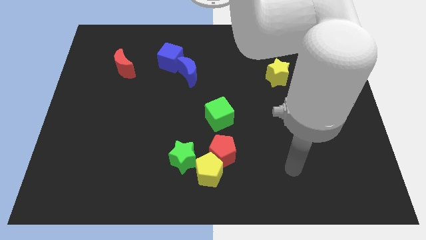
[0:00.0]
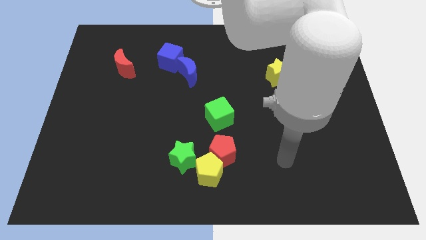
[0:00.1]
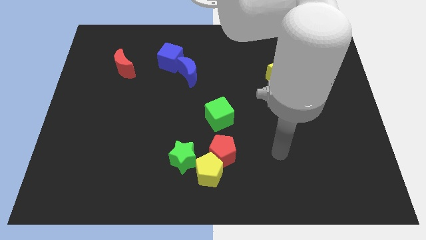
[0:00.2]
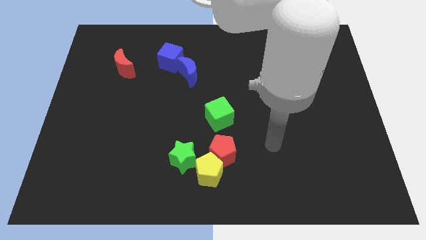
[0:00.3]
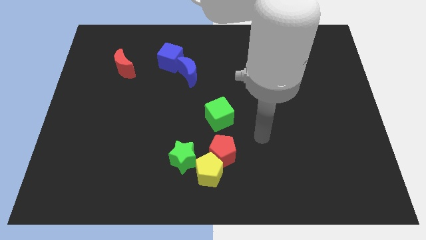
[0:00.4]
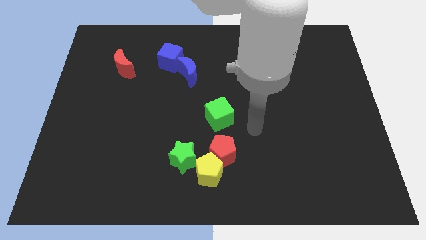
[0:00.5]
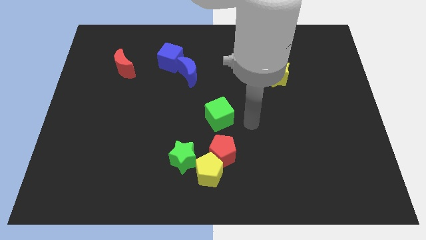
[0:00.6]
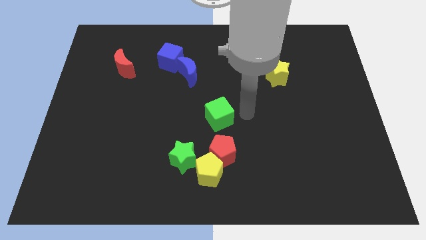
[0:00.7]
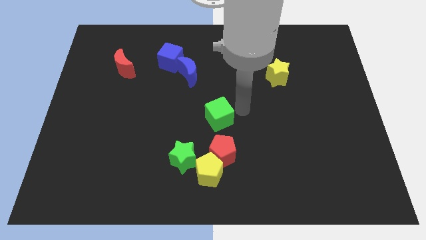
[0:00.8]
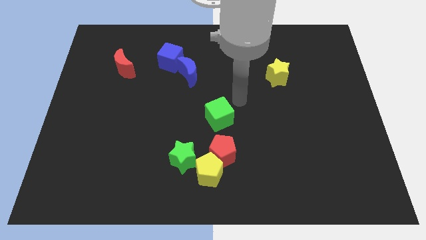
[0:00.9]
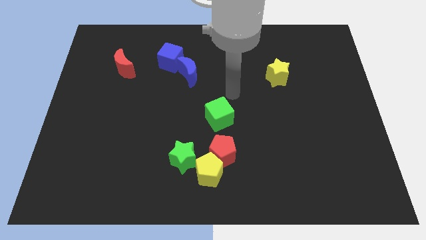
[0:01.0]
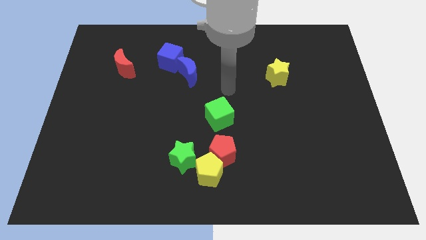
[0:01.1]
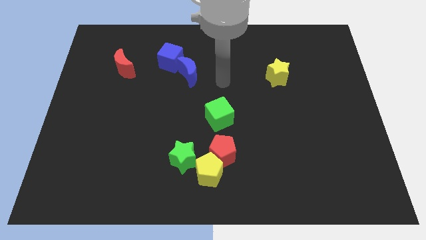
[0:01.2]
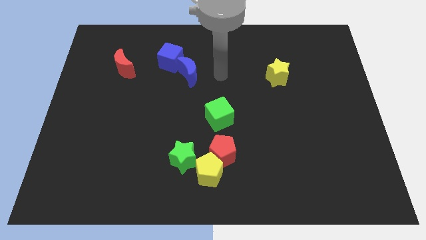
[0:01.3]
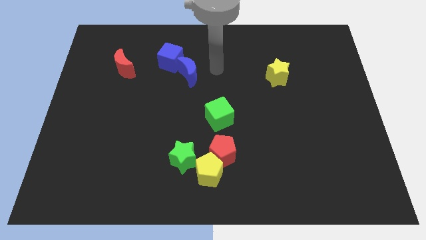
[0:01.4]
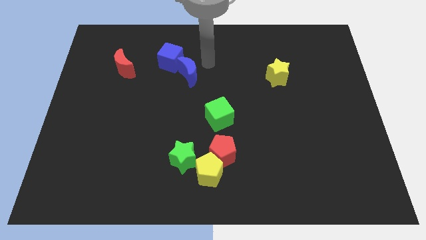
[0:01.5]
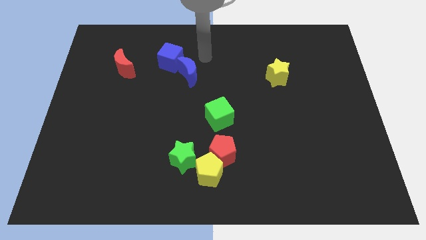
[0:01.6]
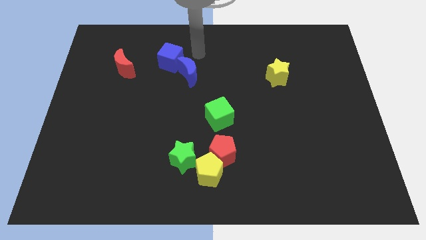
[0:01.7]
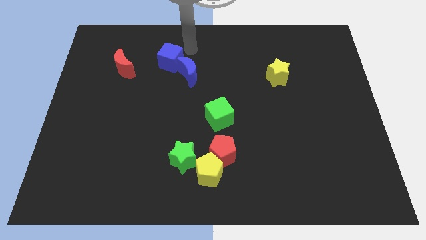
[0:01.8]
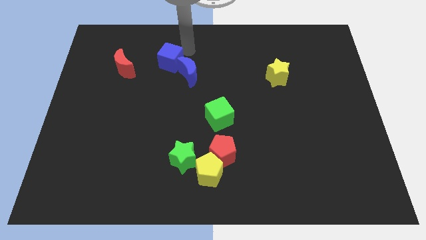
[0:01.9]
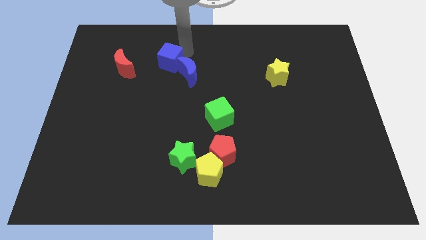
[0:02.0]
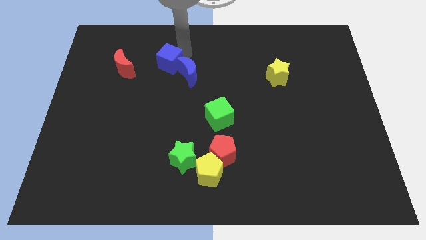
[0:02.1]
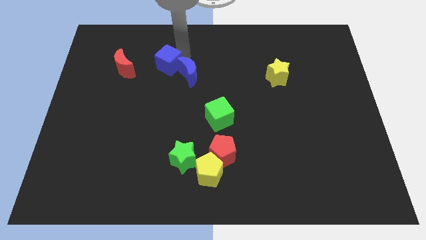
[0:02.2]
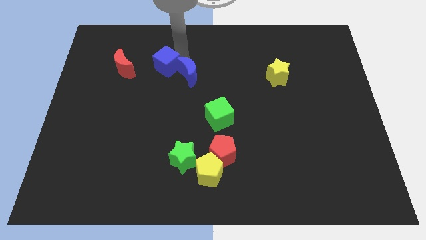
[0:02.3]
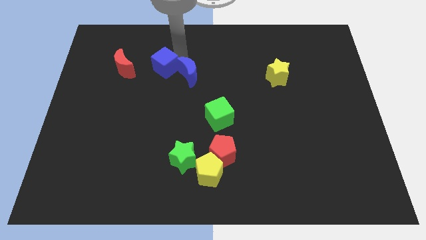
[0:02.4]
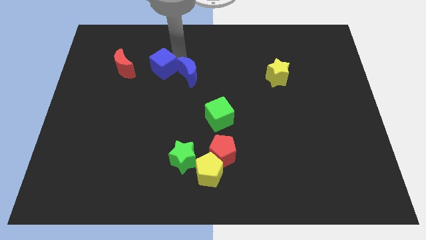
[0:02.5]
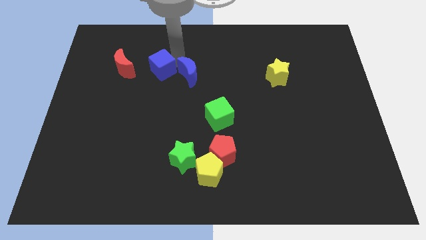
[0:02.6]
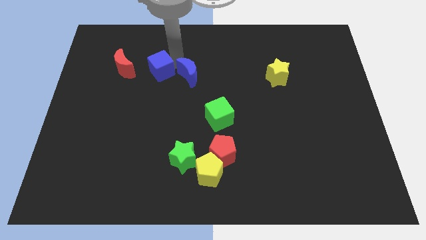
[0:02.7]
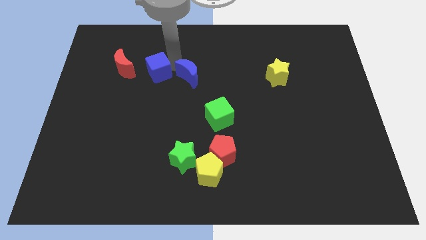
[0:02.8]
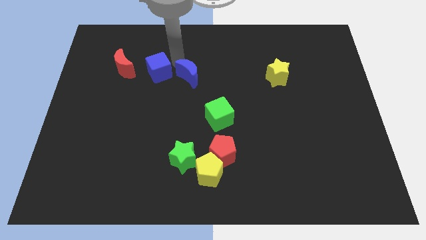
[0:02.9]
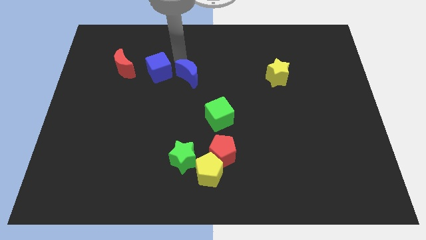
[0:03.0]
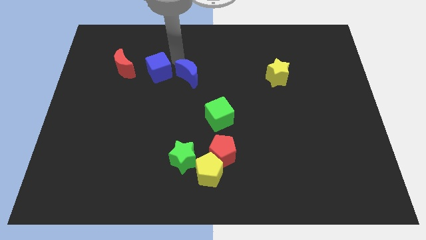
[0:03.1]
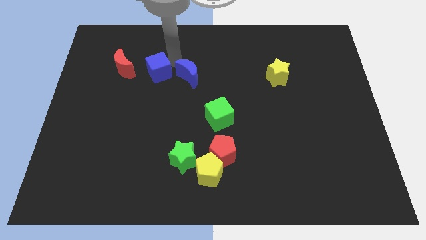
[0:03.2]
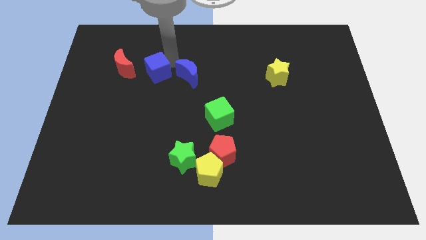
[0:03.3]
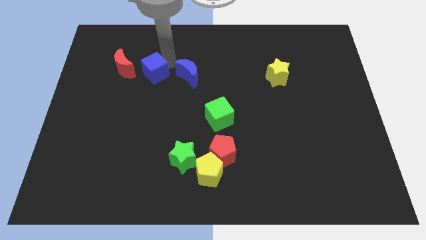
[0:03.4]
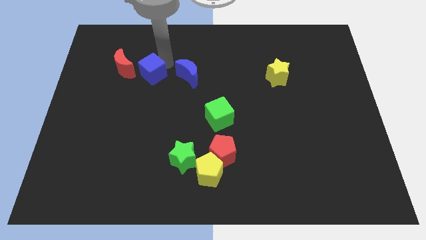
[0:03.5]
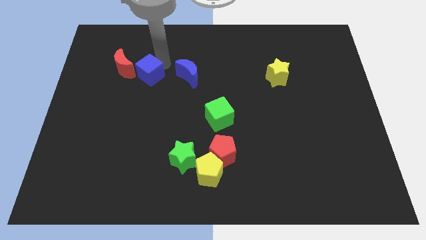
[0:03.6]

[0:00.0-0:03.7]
slide the blue cube diagonally down and to the left slightly

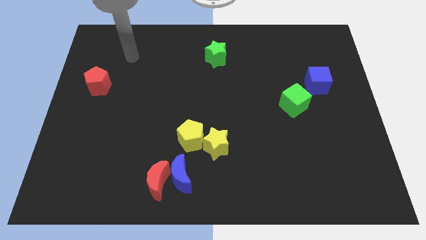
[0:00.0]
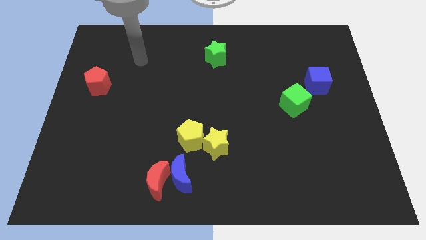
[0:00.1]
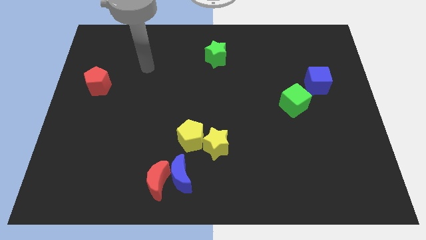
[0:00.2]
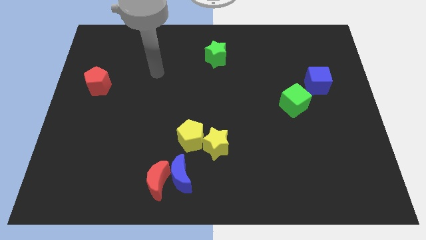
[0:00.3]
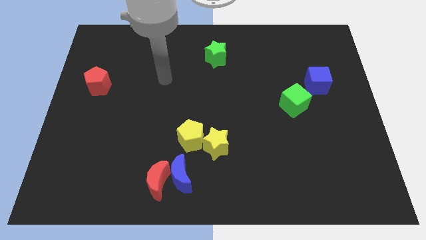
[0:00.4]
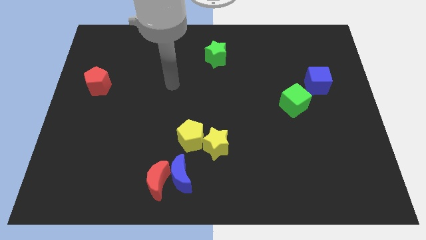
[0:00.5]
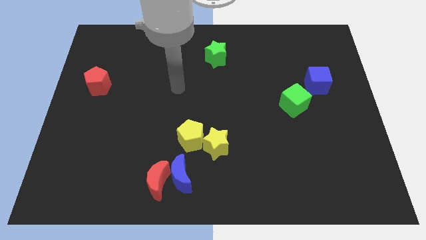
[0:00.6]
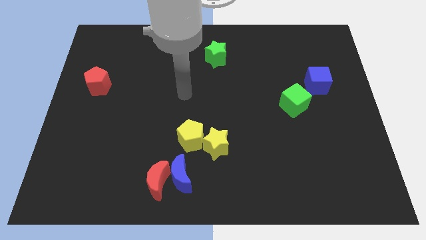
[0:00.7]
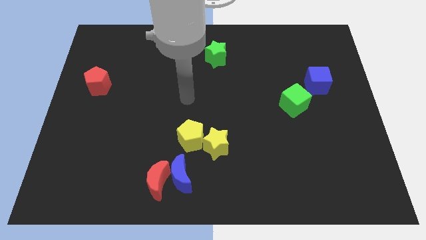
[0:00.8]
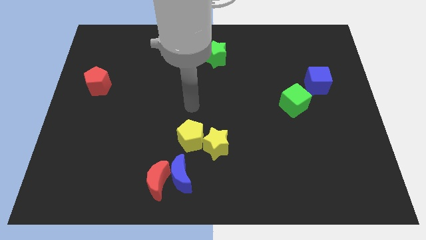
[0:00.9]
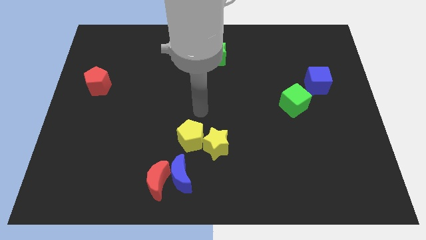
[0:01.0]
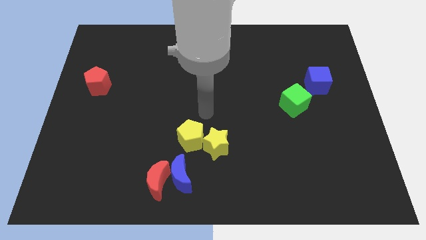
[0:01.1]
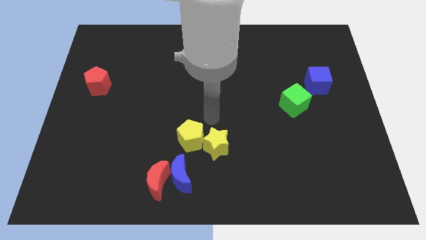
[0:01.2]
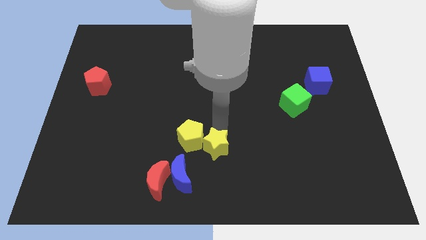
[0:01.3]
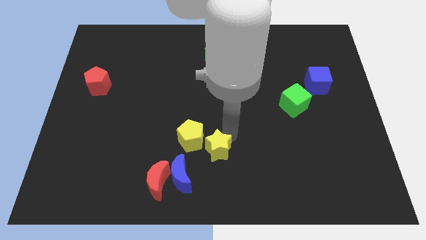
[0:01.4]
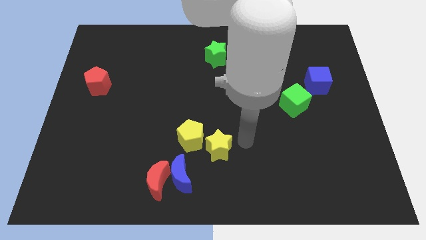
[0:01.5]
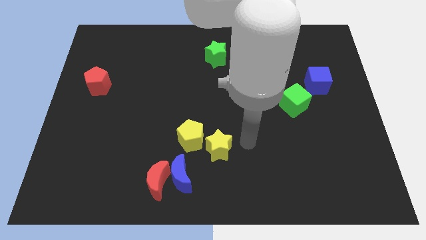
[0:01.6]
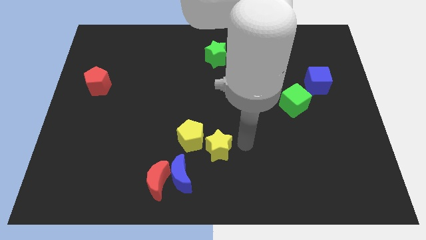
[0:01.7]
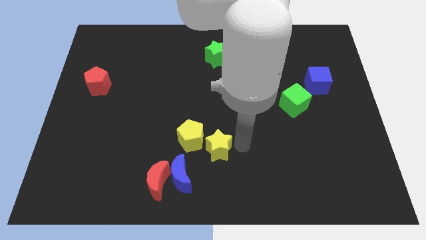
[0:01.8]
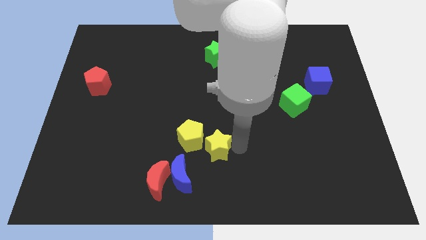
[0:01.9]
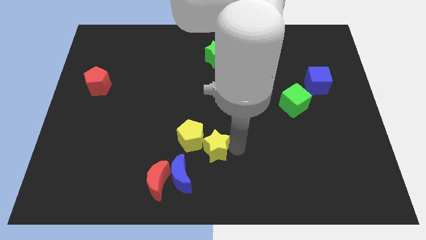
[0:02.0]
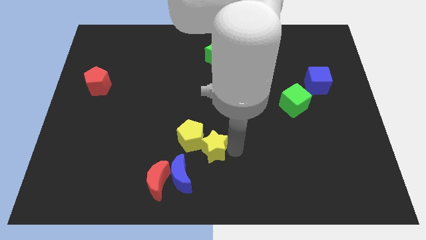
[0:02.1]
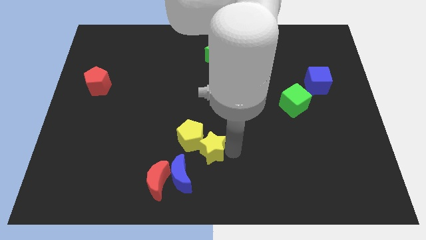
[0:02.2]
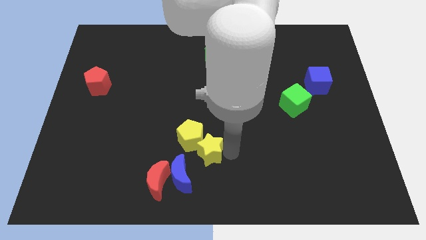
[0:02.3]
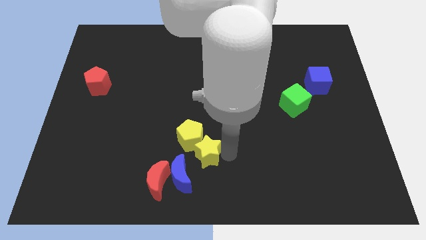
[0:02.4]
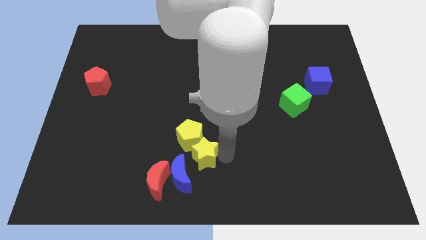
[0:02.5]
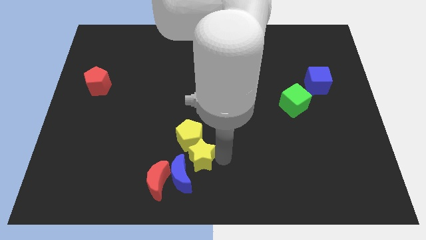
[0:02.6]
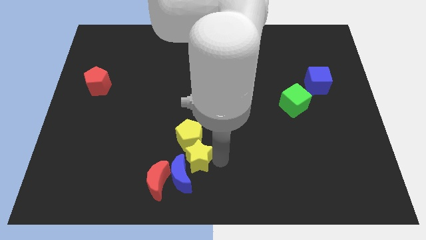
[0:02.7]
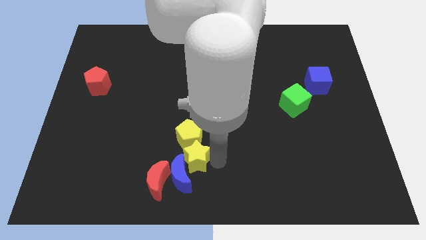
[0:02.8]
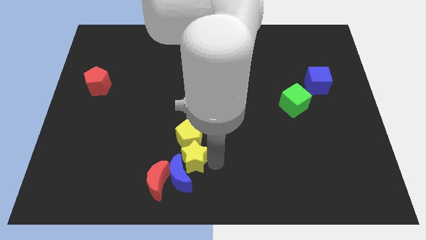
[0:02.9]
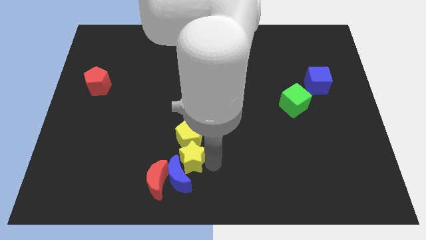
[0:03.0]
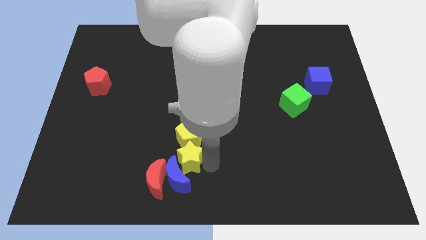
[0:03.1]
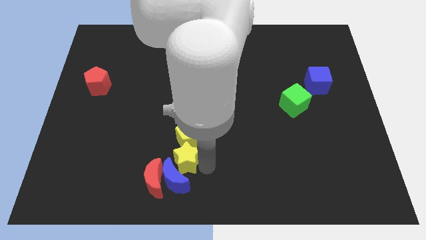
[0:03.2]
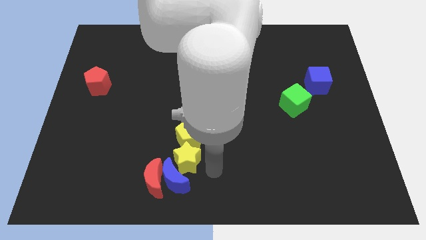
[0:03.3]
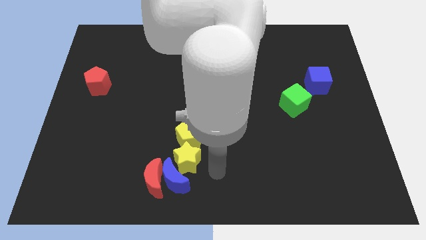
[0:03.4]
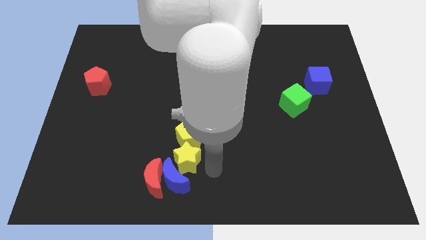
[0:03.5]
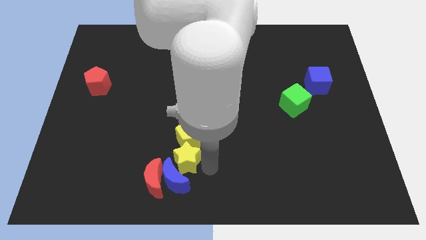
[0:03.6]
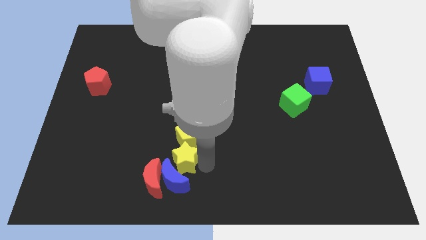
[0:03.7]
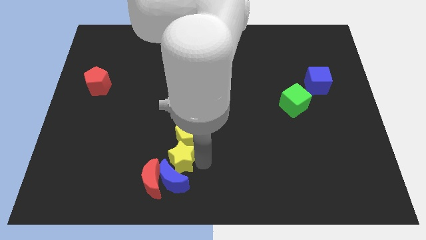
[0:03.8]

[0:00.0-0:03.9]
move the yellow star a little bit to the left

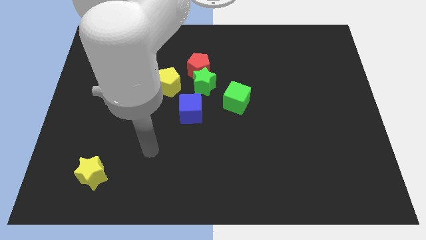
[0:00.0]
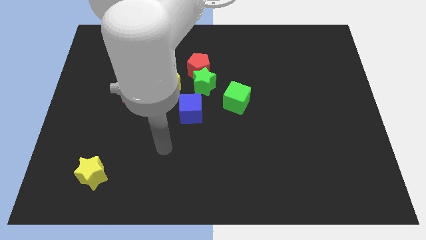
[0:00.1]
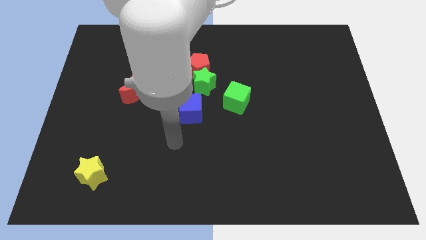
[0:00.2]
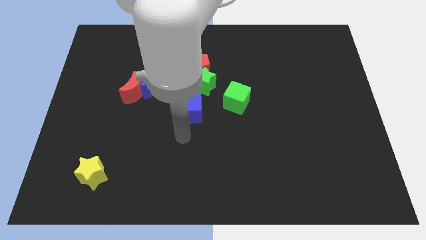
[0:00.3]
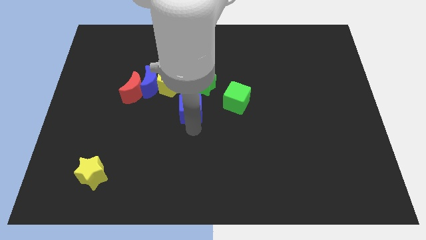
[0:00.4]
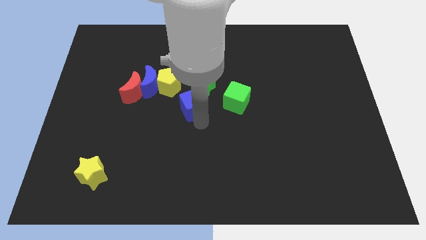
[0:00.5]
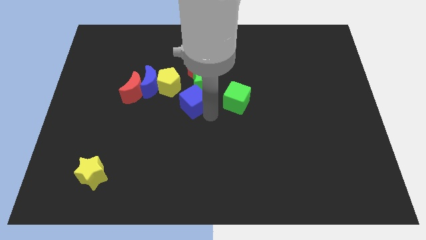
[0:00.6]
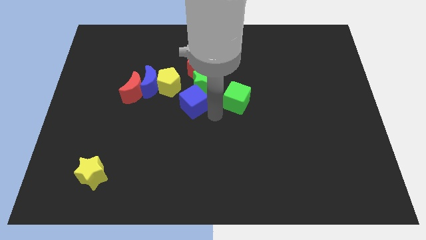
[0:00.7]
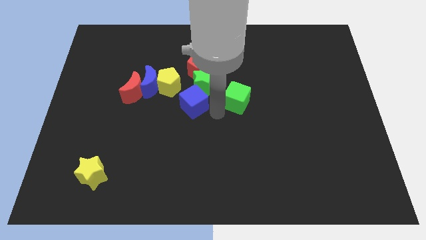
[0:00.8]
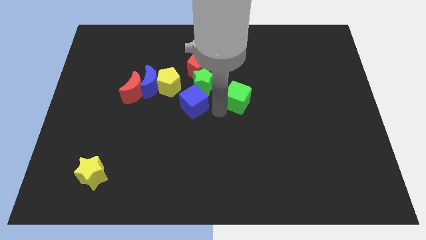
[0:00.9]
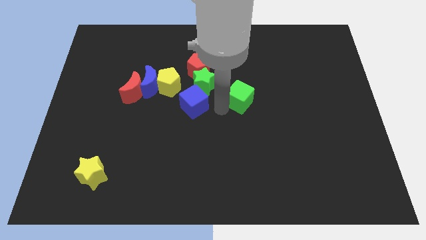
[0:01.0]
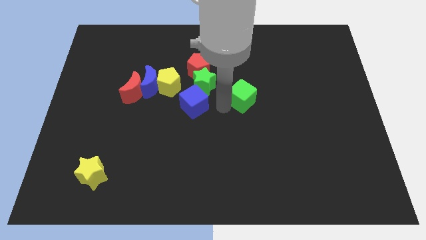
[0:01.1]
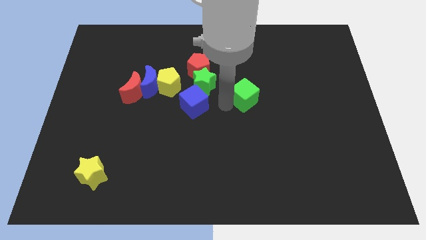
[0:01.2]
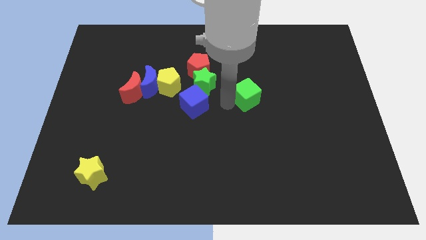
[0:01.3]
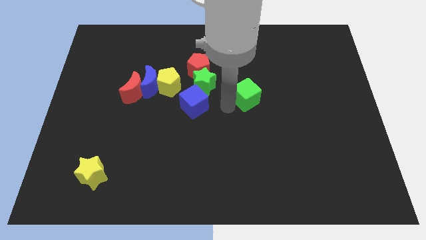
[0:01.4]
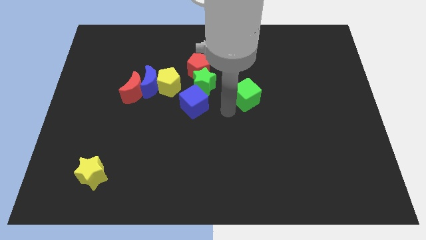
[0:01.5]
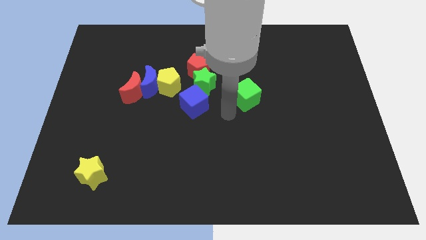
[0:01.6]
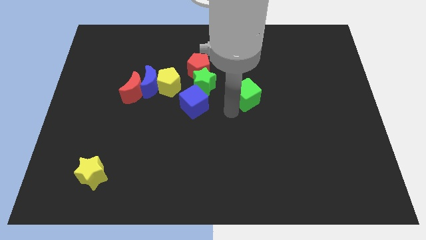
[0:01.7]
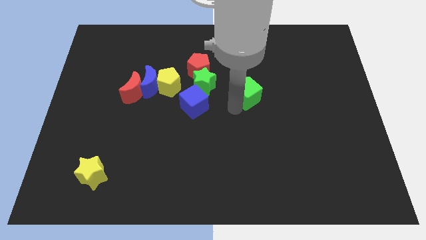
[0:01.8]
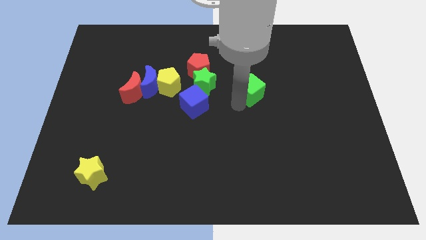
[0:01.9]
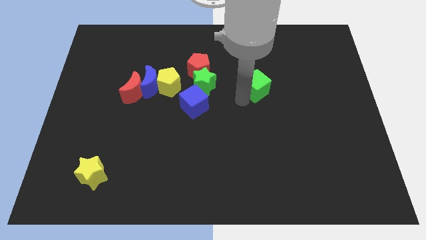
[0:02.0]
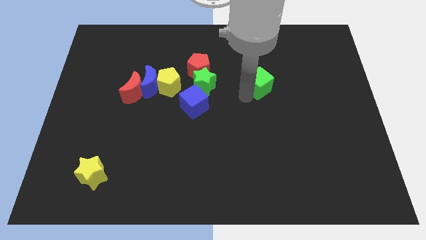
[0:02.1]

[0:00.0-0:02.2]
slide the green cube up and then right a little bit
